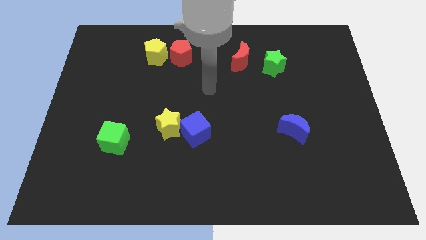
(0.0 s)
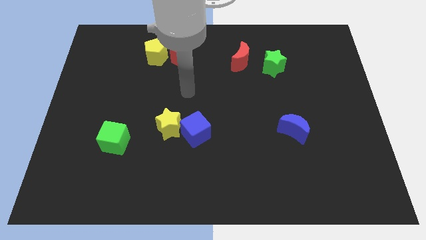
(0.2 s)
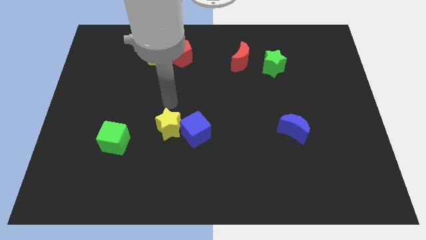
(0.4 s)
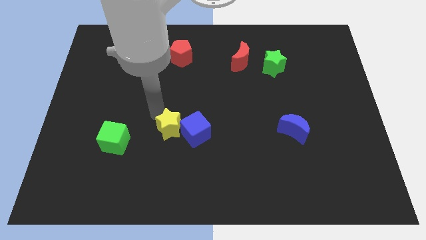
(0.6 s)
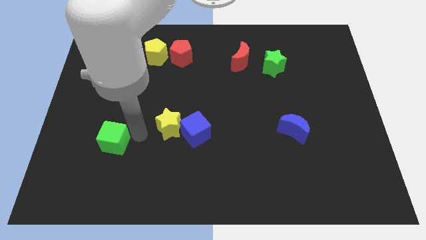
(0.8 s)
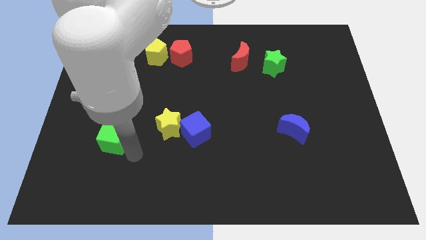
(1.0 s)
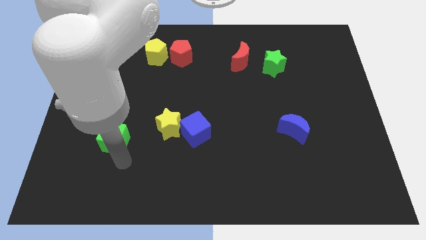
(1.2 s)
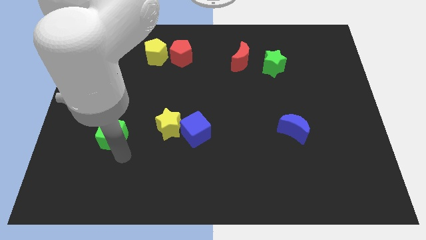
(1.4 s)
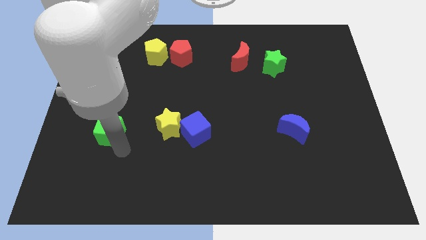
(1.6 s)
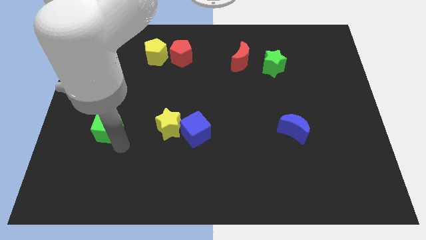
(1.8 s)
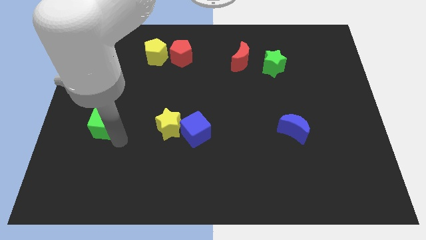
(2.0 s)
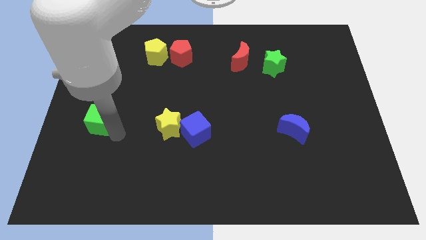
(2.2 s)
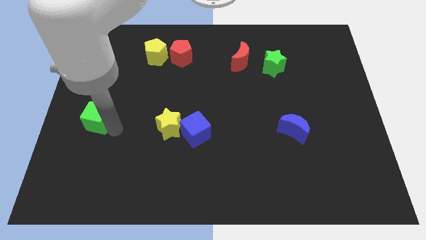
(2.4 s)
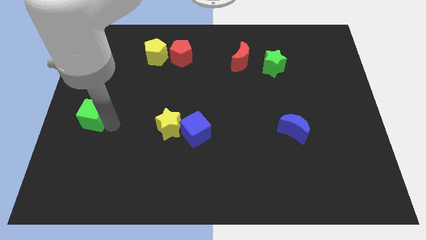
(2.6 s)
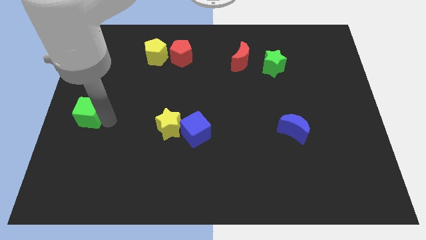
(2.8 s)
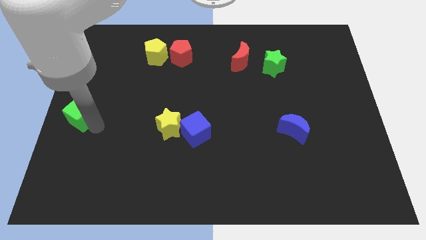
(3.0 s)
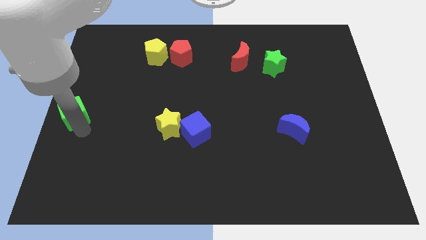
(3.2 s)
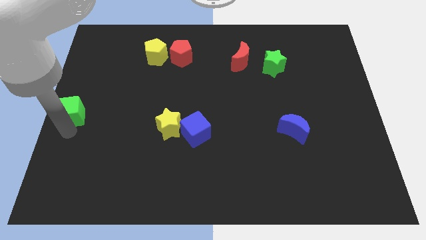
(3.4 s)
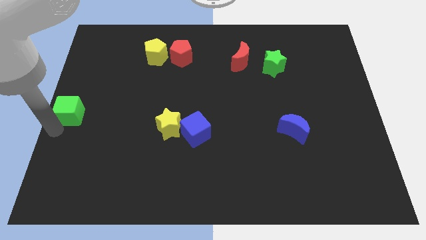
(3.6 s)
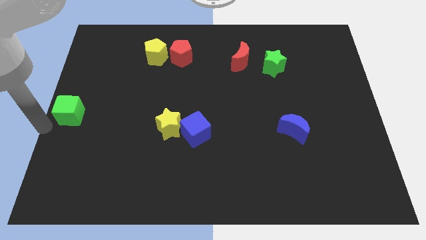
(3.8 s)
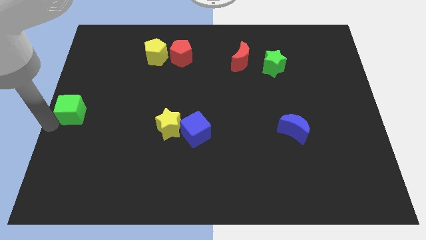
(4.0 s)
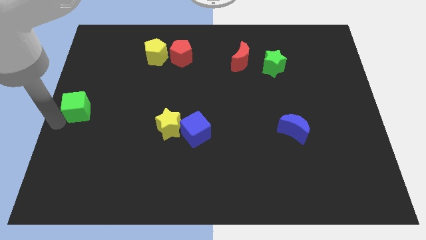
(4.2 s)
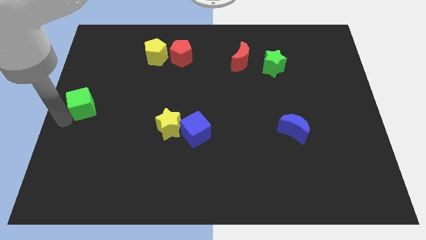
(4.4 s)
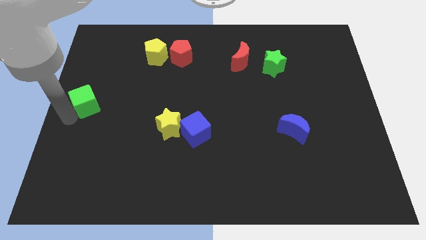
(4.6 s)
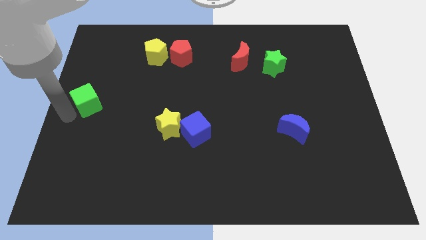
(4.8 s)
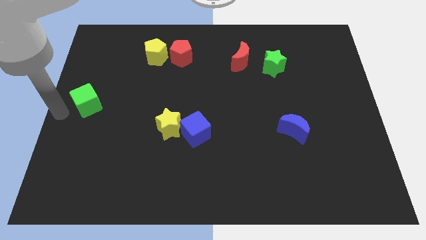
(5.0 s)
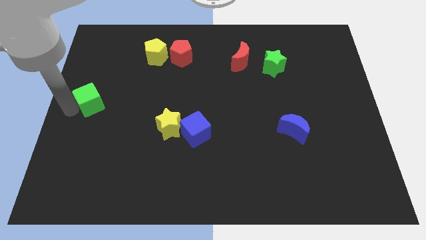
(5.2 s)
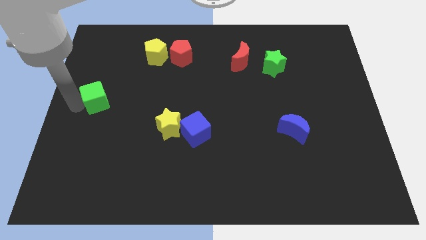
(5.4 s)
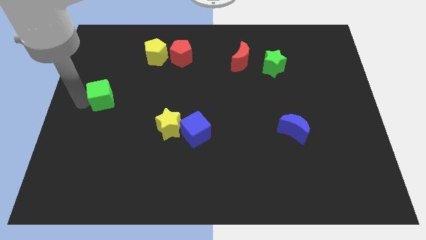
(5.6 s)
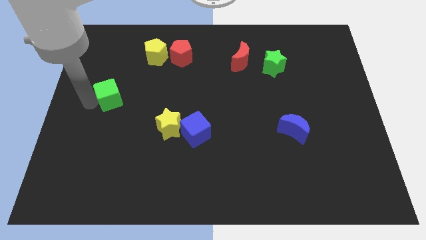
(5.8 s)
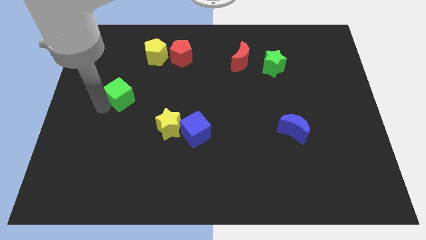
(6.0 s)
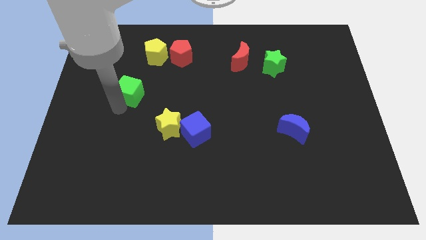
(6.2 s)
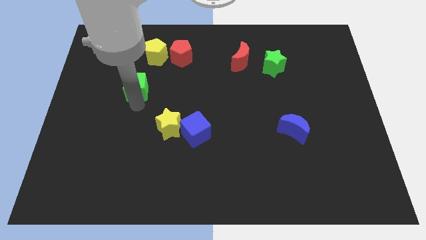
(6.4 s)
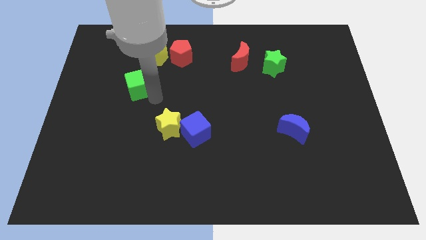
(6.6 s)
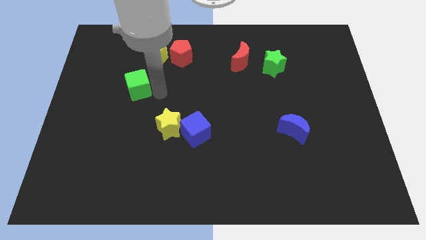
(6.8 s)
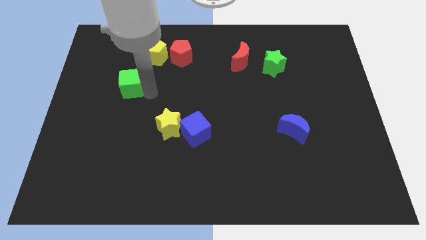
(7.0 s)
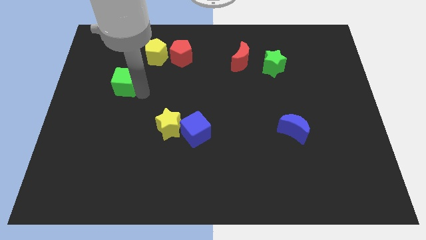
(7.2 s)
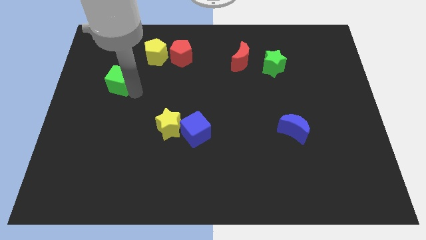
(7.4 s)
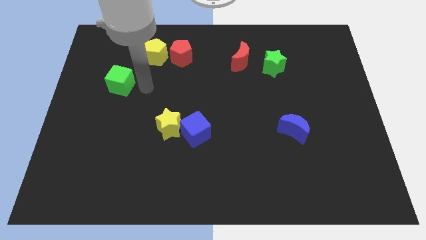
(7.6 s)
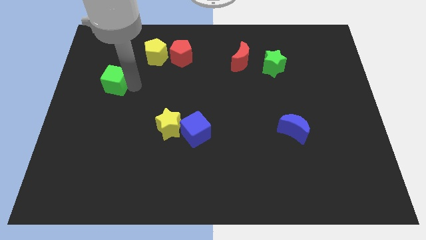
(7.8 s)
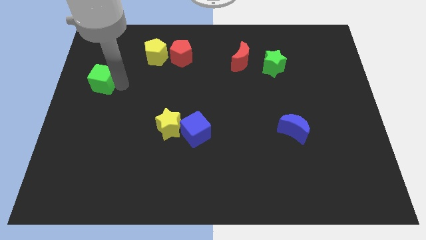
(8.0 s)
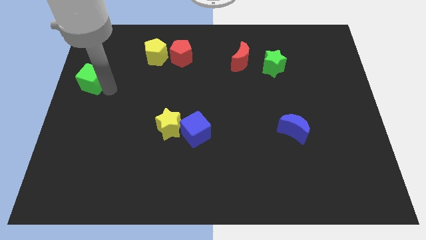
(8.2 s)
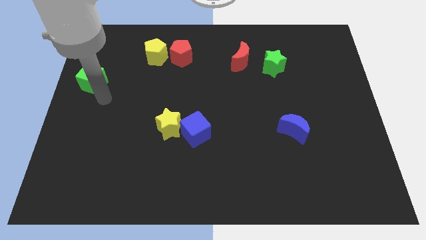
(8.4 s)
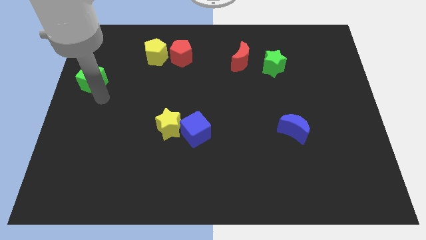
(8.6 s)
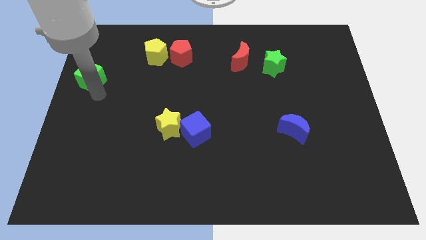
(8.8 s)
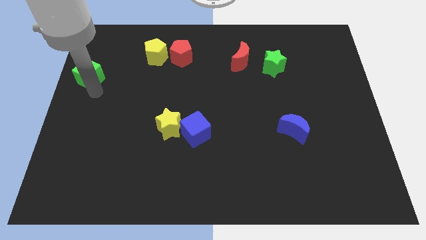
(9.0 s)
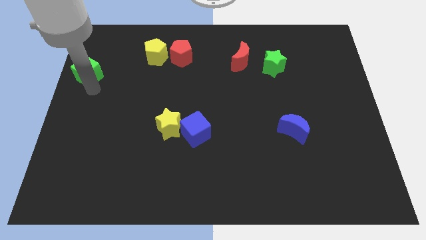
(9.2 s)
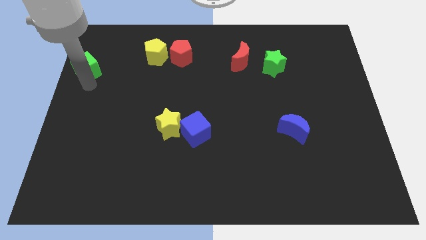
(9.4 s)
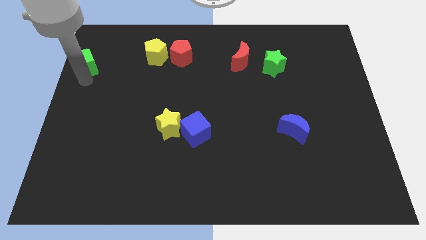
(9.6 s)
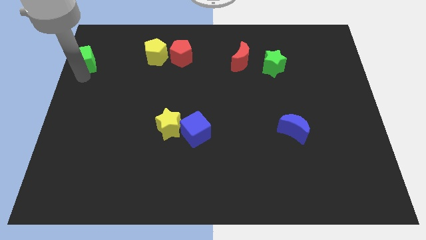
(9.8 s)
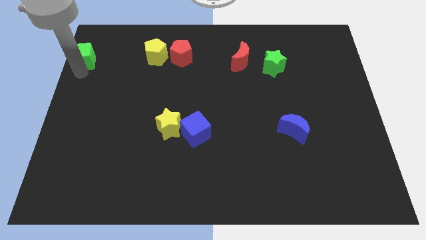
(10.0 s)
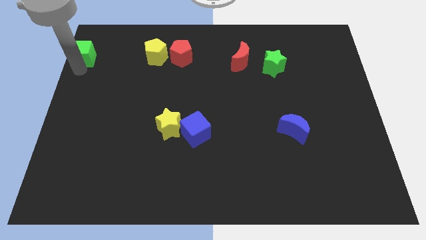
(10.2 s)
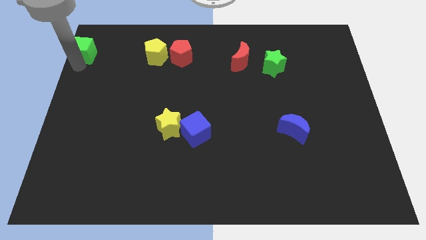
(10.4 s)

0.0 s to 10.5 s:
slide the green cube to the top left corner

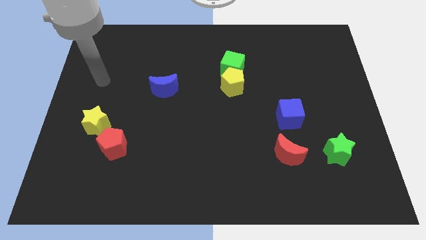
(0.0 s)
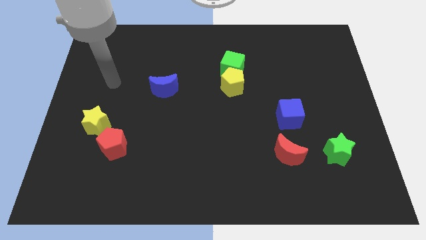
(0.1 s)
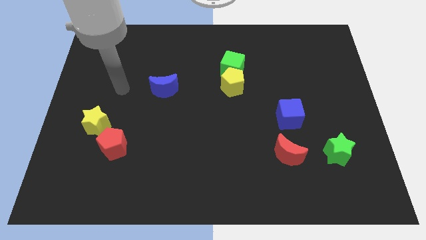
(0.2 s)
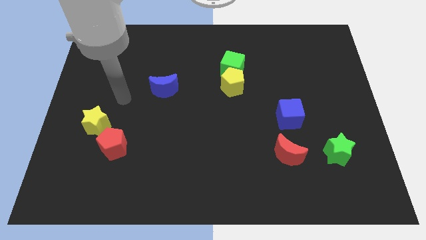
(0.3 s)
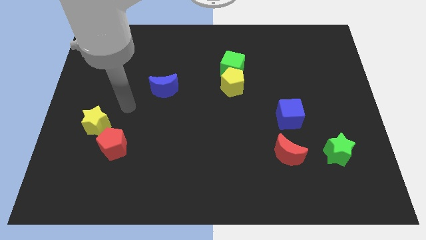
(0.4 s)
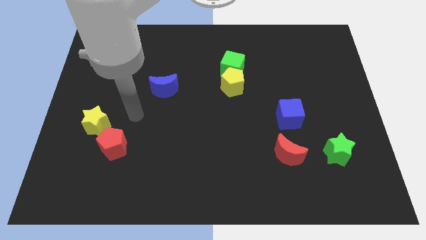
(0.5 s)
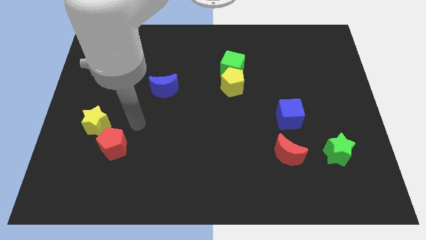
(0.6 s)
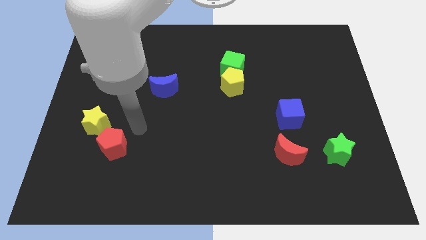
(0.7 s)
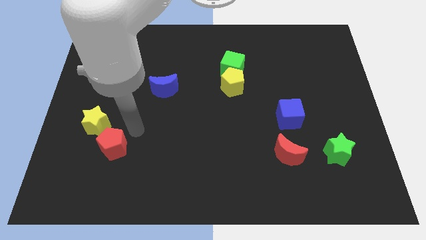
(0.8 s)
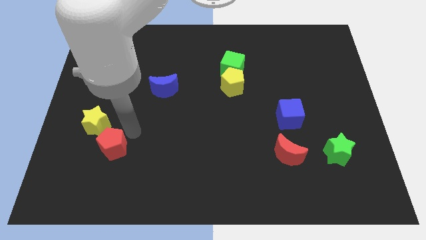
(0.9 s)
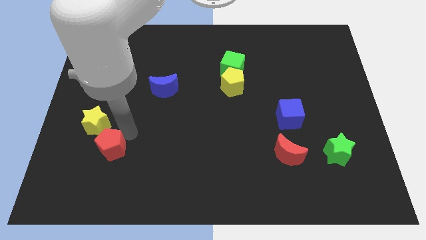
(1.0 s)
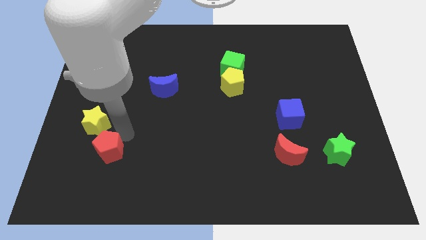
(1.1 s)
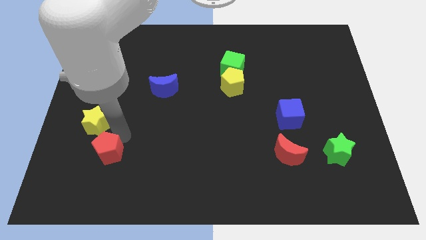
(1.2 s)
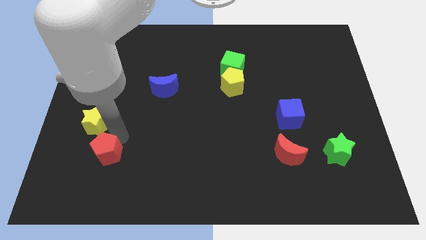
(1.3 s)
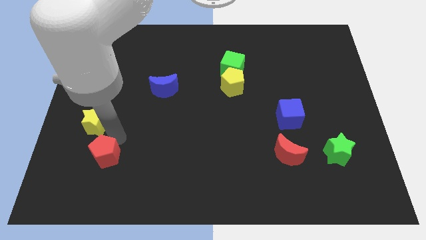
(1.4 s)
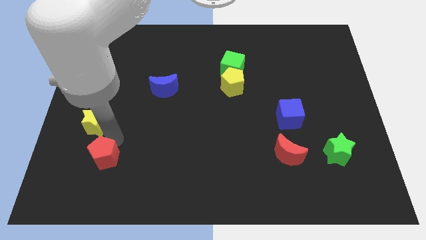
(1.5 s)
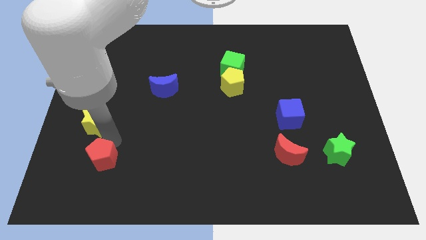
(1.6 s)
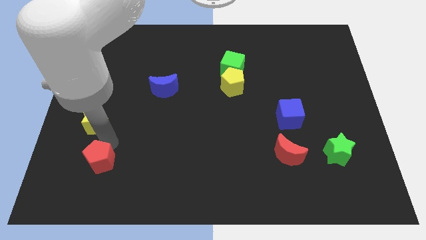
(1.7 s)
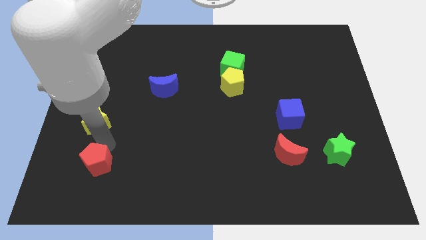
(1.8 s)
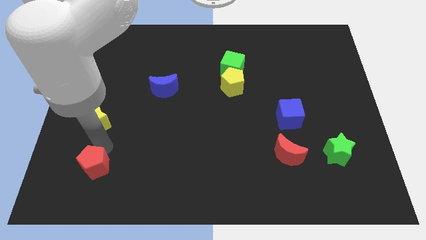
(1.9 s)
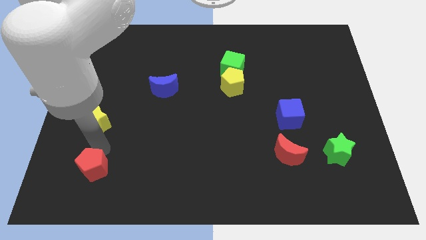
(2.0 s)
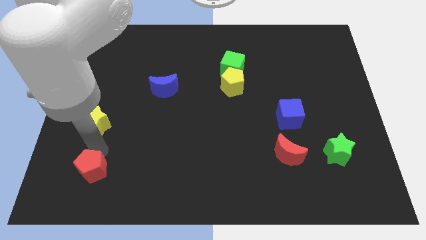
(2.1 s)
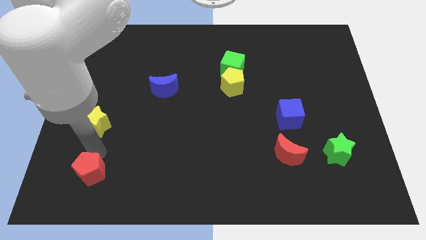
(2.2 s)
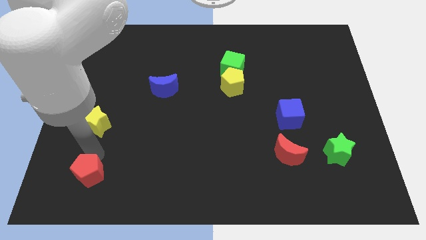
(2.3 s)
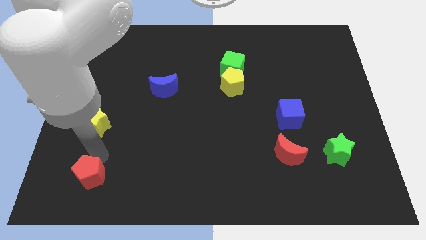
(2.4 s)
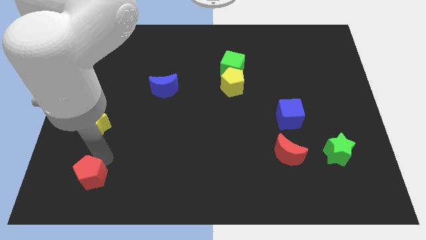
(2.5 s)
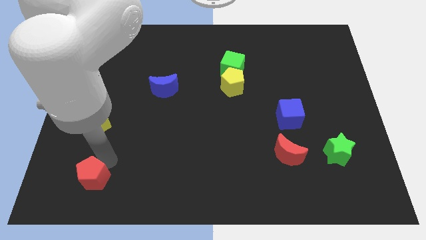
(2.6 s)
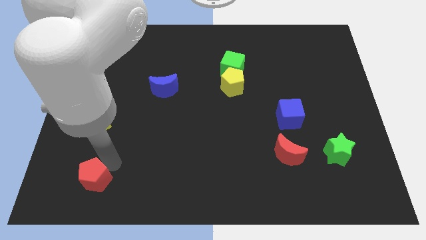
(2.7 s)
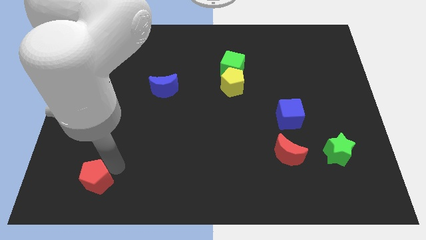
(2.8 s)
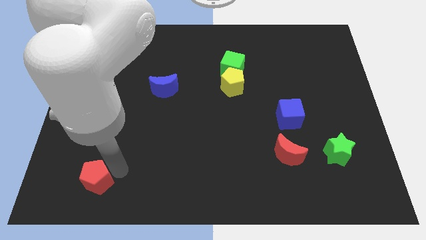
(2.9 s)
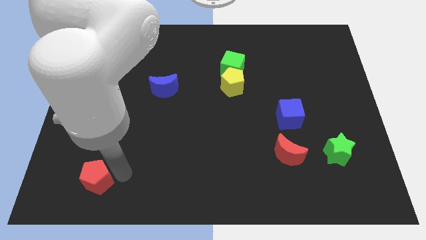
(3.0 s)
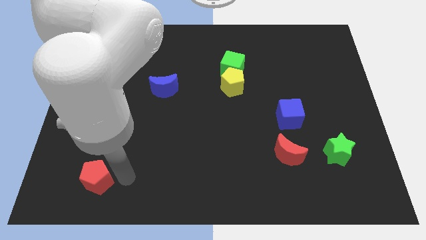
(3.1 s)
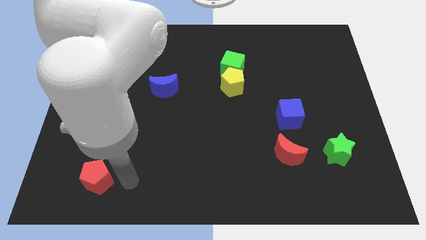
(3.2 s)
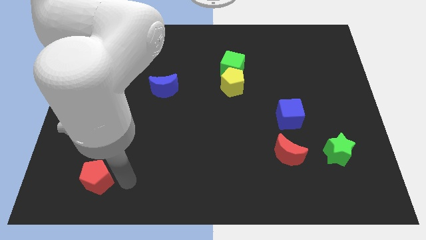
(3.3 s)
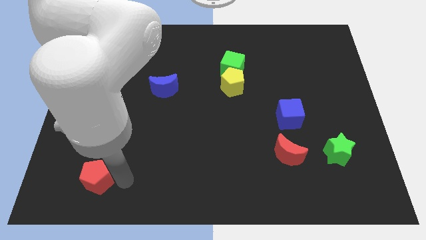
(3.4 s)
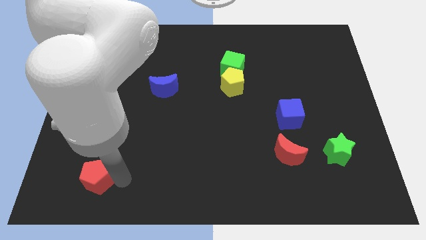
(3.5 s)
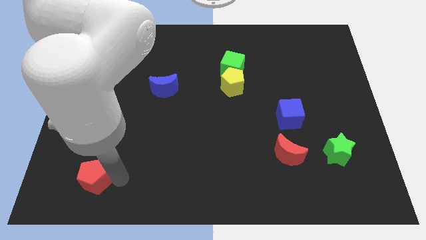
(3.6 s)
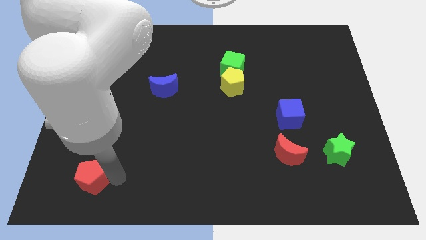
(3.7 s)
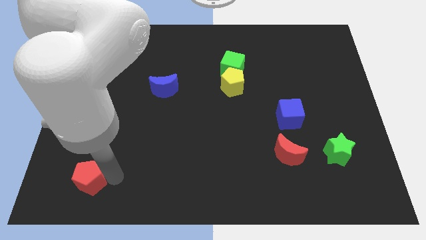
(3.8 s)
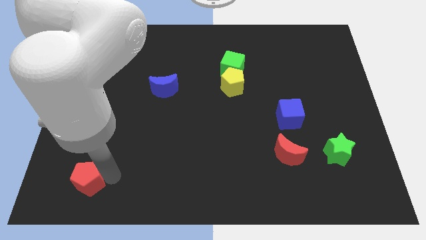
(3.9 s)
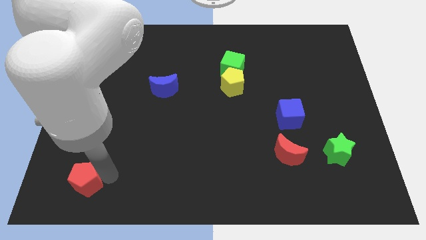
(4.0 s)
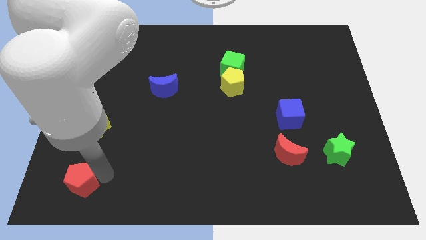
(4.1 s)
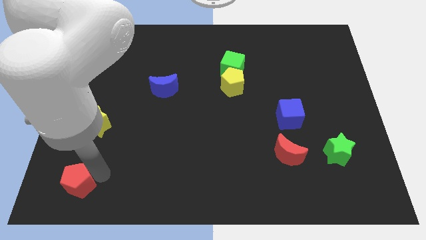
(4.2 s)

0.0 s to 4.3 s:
move the red pentagon to the bottom left
